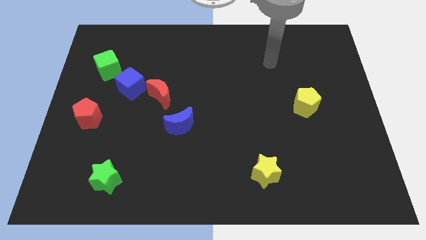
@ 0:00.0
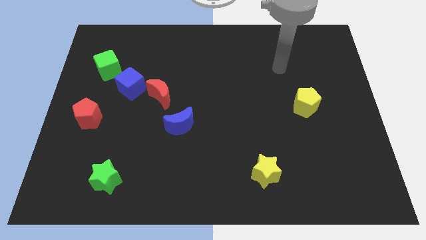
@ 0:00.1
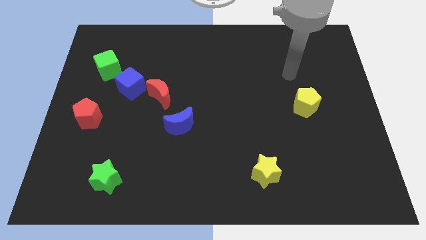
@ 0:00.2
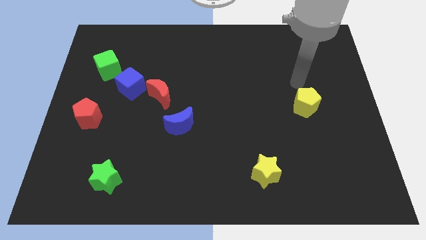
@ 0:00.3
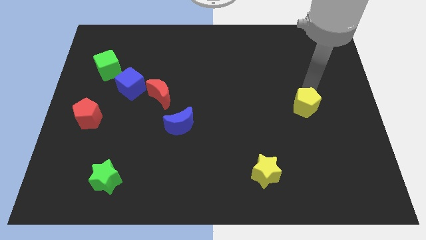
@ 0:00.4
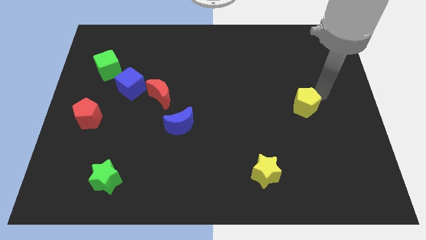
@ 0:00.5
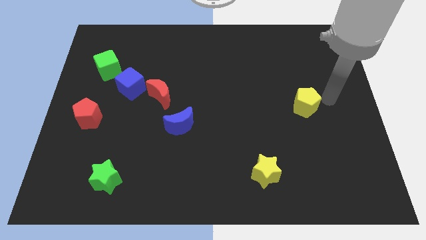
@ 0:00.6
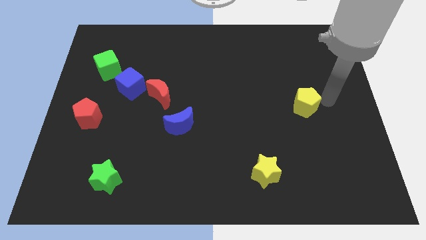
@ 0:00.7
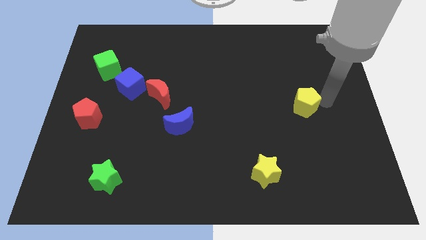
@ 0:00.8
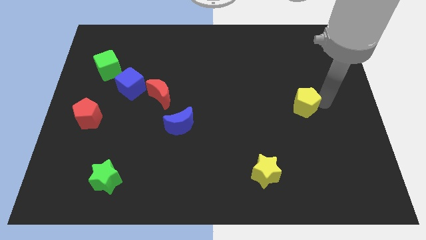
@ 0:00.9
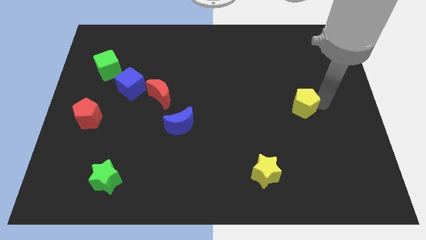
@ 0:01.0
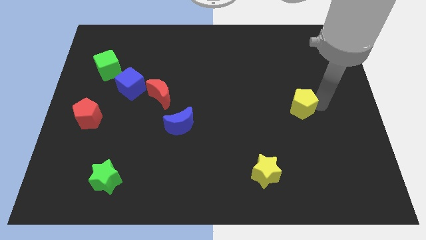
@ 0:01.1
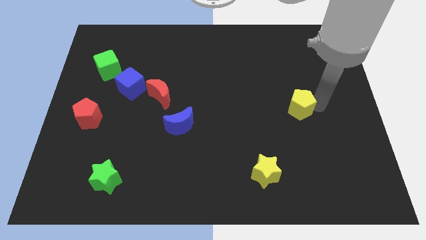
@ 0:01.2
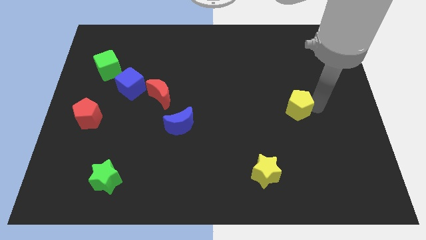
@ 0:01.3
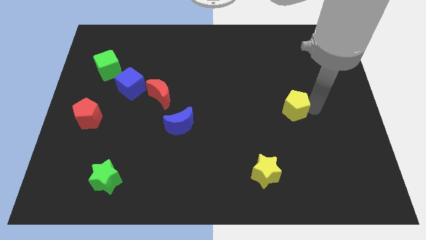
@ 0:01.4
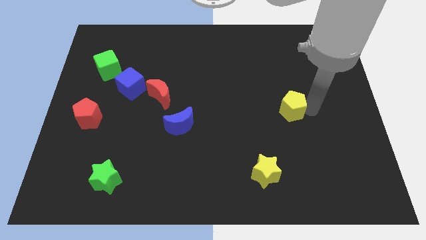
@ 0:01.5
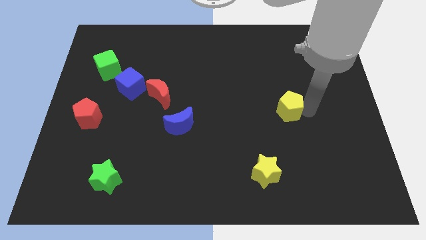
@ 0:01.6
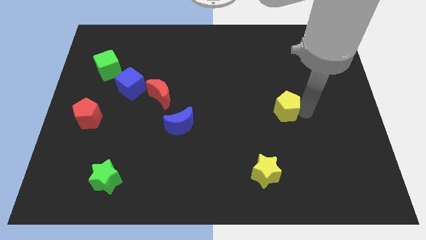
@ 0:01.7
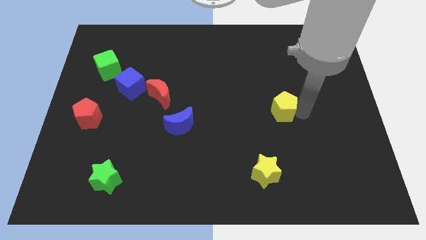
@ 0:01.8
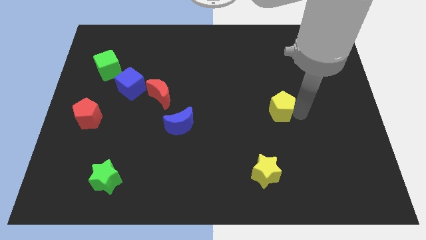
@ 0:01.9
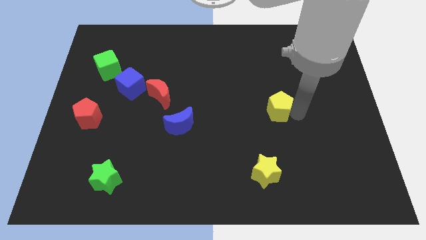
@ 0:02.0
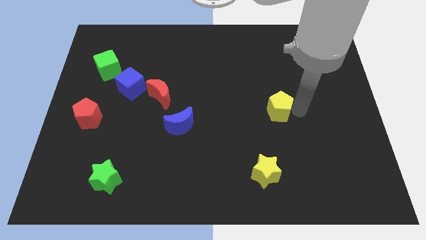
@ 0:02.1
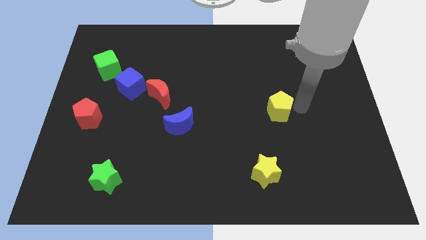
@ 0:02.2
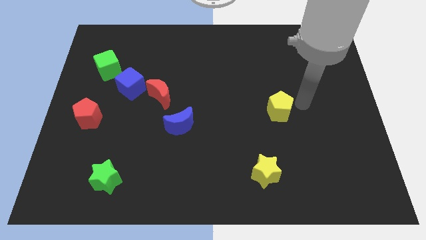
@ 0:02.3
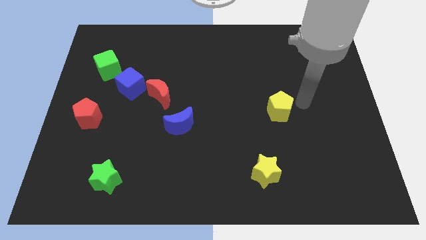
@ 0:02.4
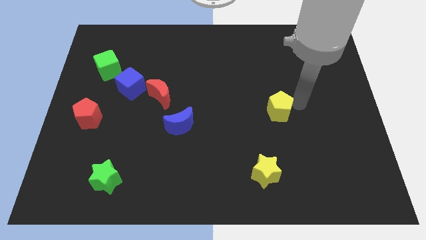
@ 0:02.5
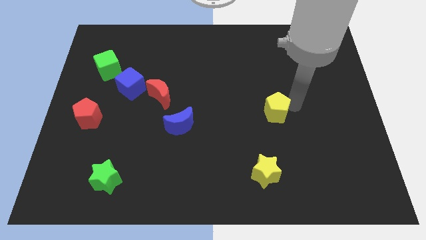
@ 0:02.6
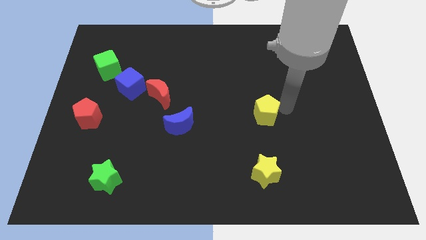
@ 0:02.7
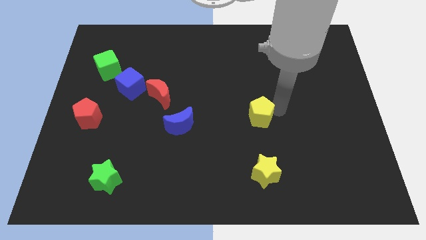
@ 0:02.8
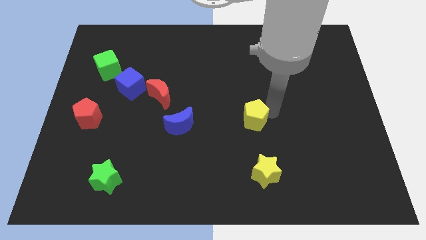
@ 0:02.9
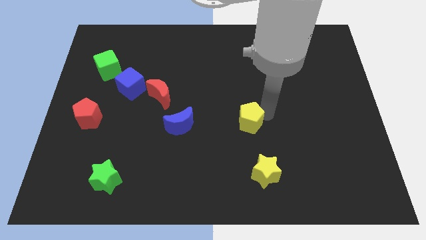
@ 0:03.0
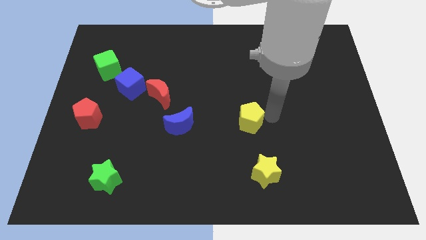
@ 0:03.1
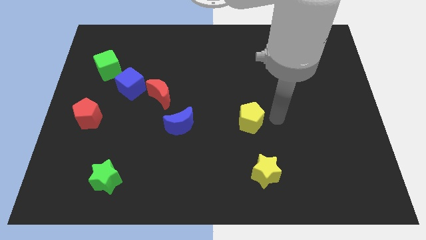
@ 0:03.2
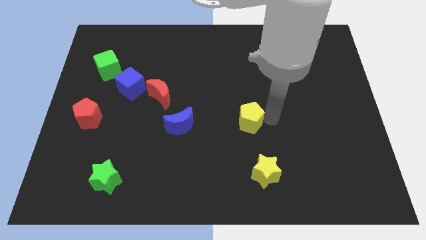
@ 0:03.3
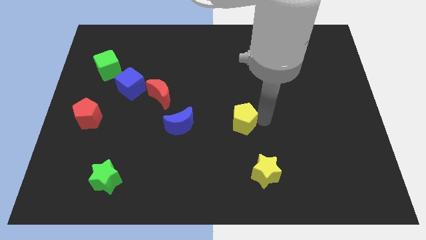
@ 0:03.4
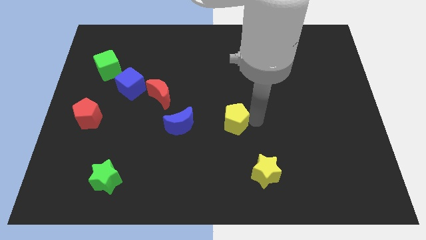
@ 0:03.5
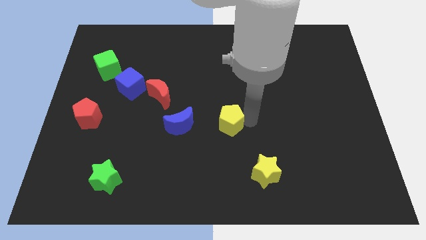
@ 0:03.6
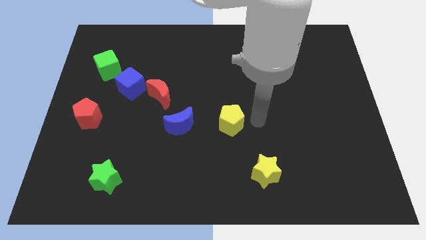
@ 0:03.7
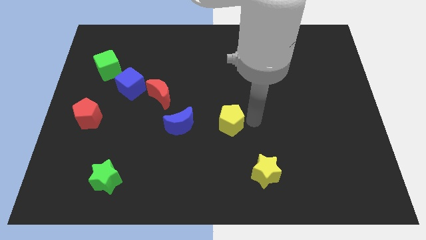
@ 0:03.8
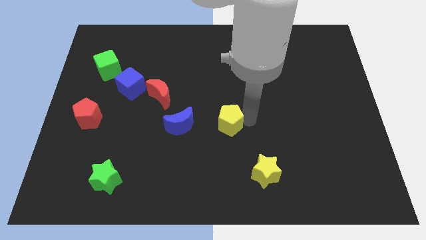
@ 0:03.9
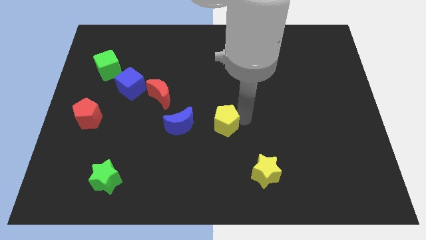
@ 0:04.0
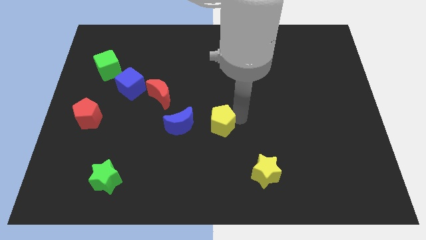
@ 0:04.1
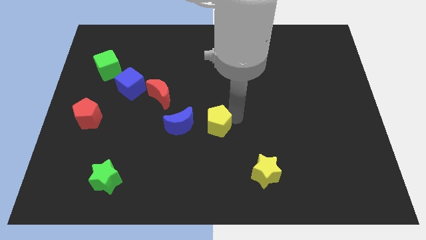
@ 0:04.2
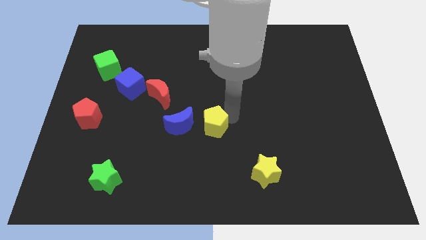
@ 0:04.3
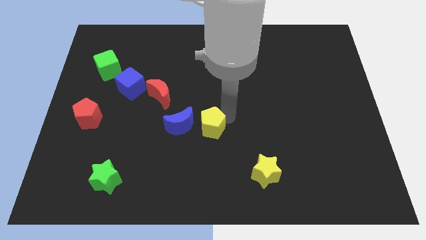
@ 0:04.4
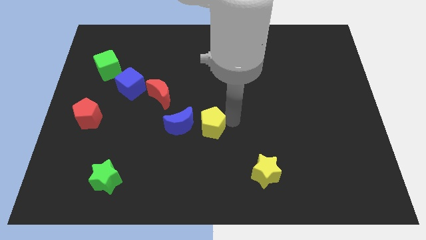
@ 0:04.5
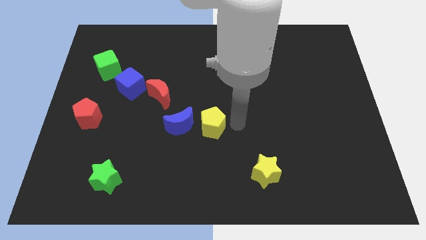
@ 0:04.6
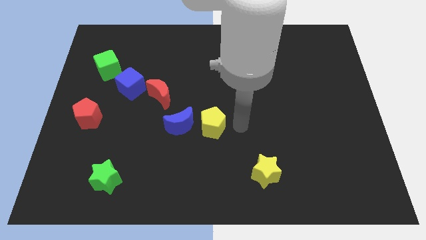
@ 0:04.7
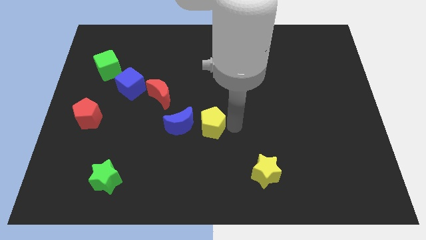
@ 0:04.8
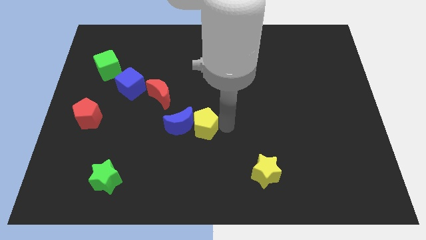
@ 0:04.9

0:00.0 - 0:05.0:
slide the yellow pentagon towards the blue moon

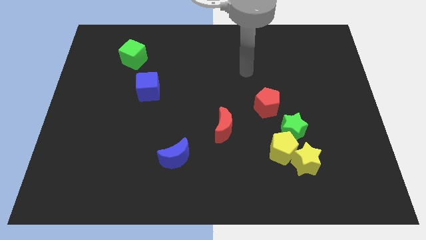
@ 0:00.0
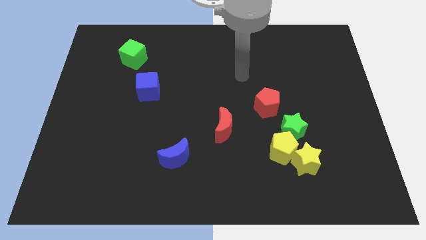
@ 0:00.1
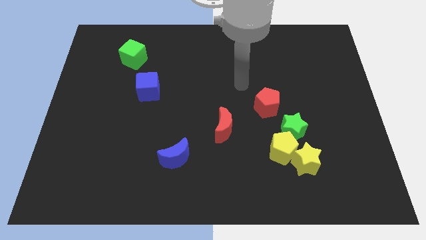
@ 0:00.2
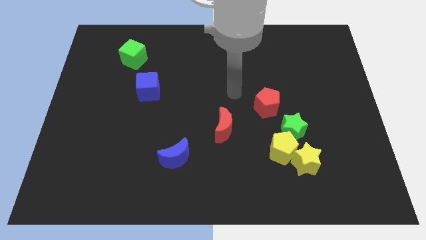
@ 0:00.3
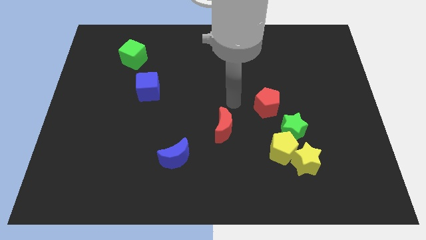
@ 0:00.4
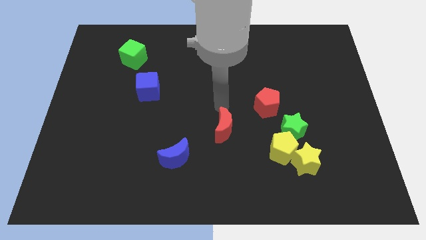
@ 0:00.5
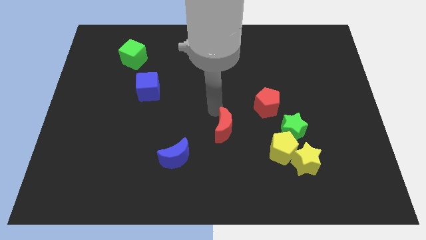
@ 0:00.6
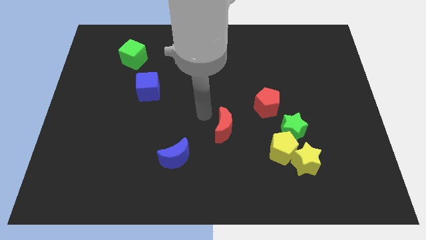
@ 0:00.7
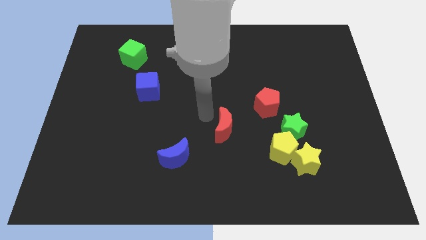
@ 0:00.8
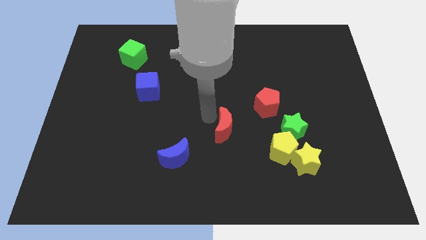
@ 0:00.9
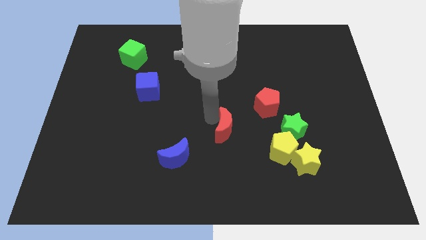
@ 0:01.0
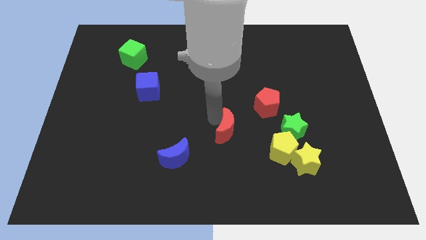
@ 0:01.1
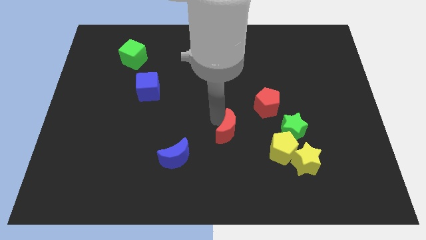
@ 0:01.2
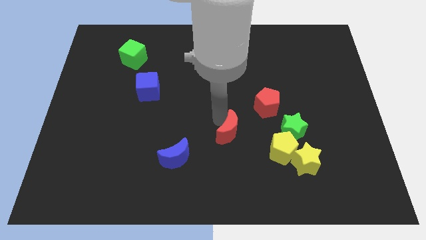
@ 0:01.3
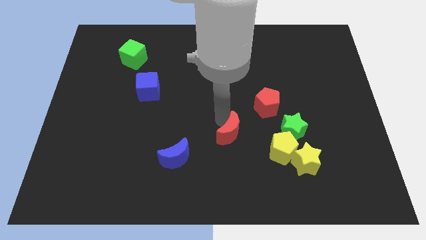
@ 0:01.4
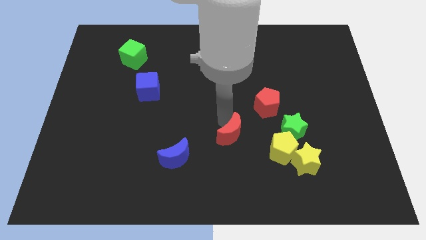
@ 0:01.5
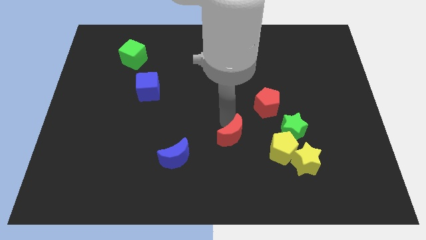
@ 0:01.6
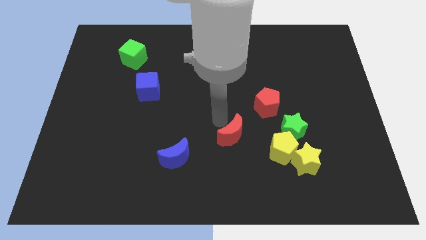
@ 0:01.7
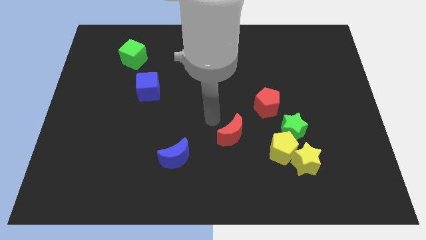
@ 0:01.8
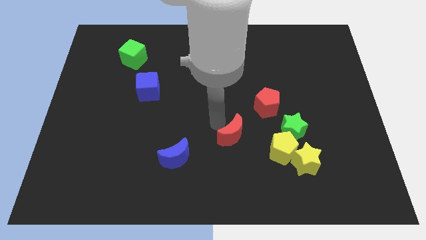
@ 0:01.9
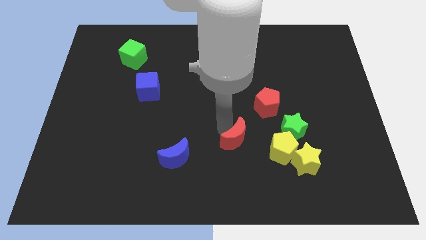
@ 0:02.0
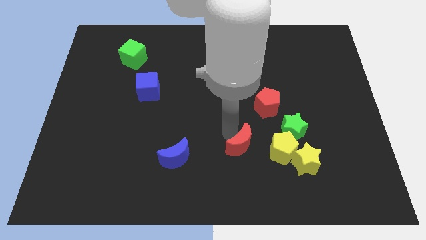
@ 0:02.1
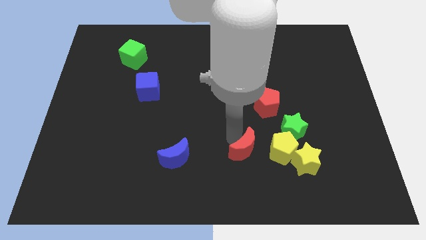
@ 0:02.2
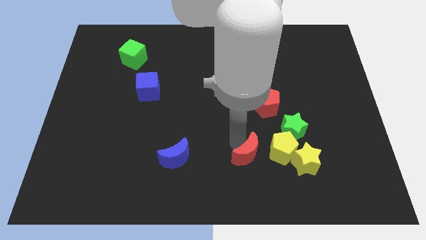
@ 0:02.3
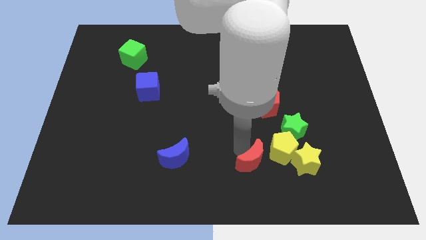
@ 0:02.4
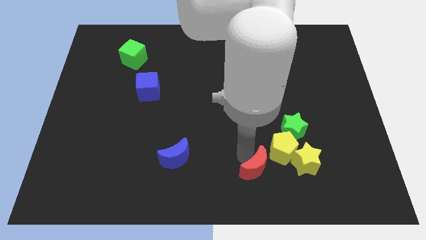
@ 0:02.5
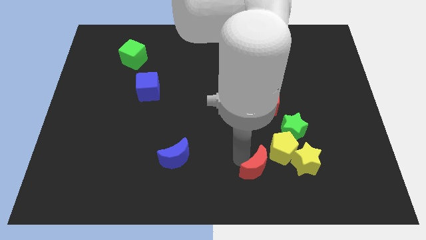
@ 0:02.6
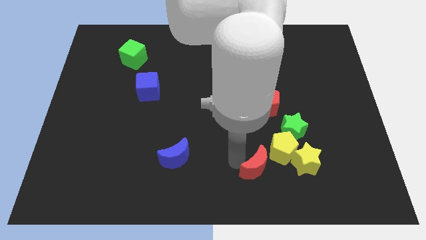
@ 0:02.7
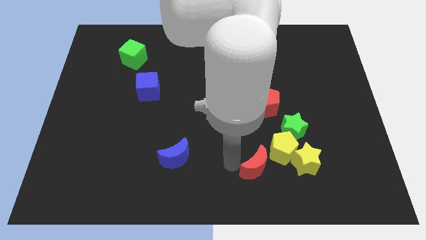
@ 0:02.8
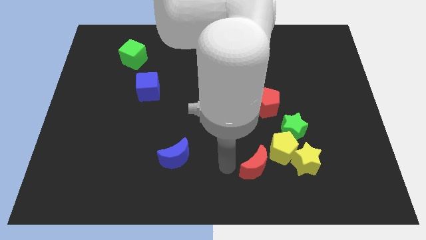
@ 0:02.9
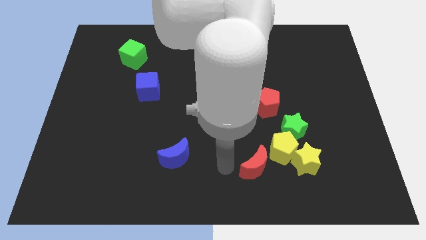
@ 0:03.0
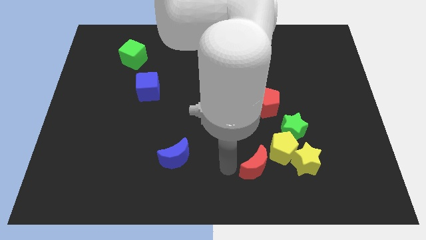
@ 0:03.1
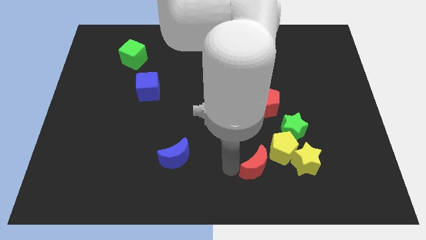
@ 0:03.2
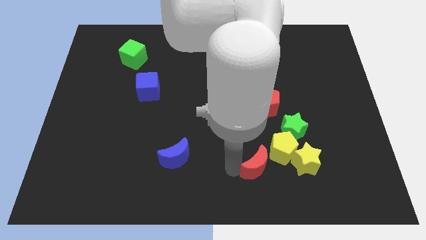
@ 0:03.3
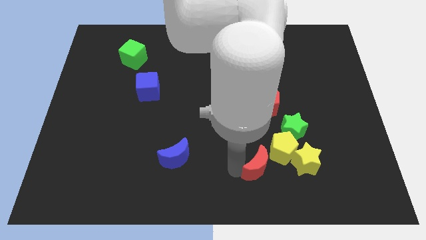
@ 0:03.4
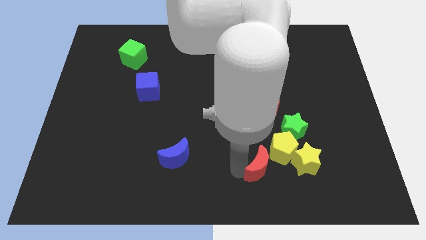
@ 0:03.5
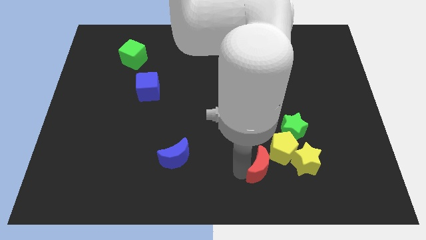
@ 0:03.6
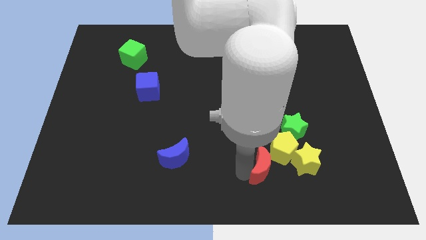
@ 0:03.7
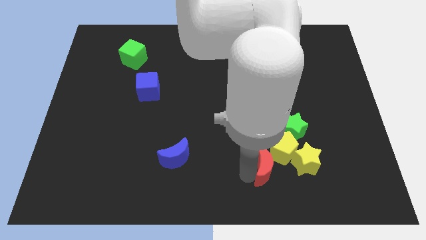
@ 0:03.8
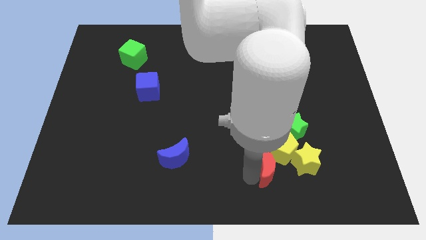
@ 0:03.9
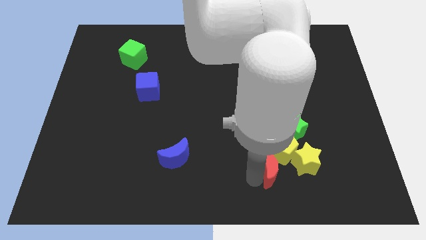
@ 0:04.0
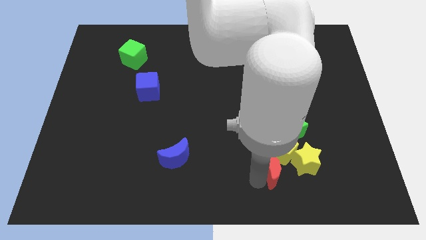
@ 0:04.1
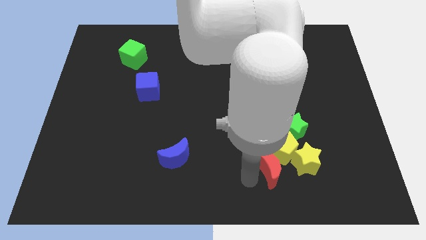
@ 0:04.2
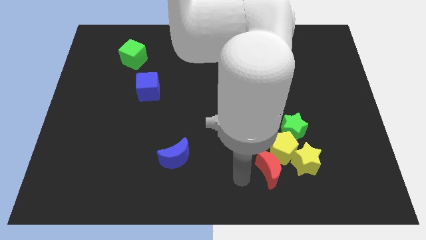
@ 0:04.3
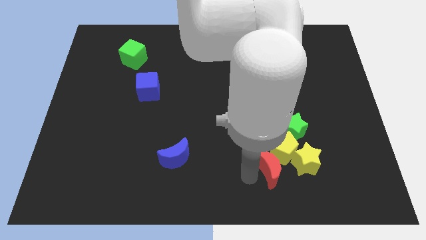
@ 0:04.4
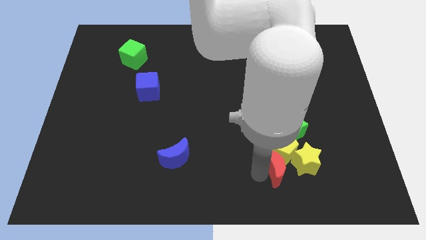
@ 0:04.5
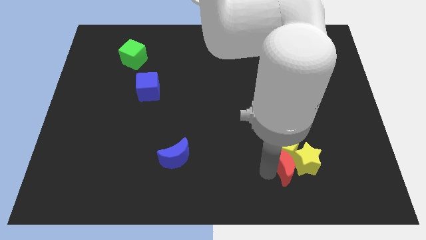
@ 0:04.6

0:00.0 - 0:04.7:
put the red moon close to the yellow star
